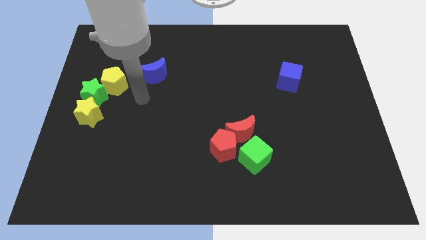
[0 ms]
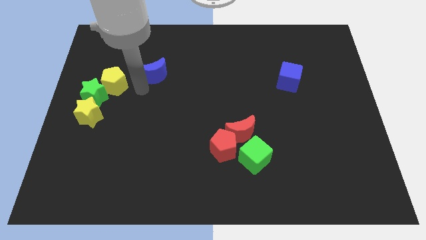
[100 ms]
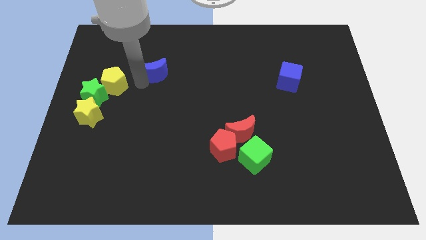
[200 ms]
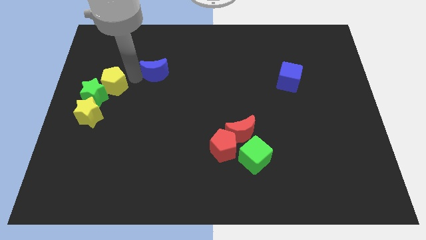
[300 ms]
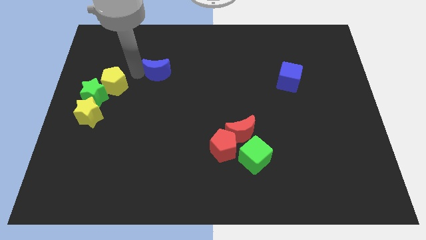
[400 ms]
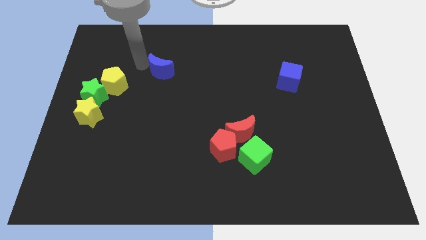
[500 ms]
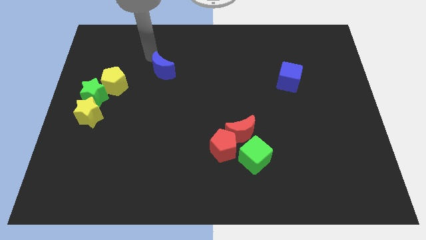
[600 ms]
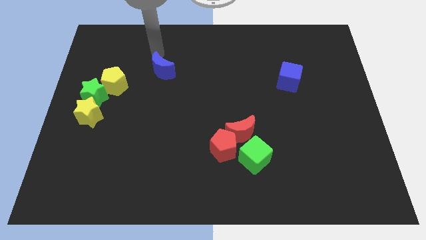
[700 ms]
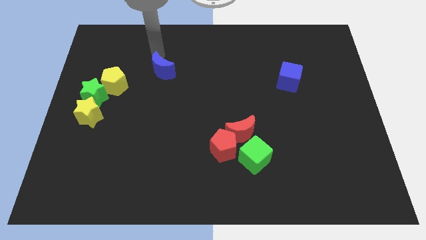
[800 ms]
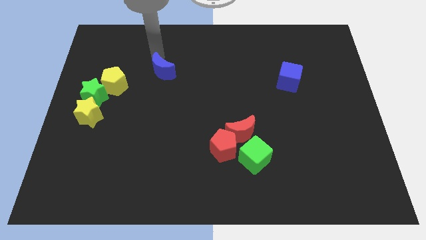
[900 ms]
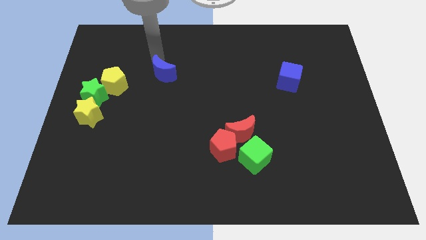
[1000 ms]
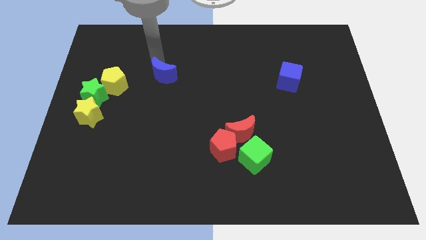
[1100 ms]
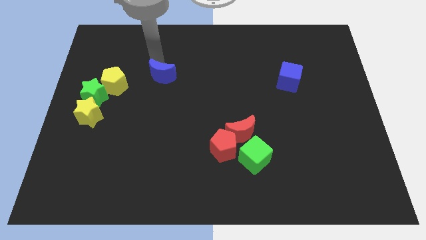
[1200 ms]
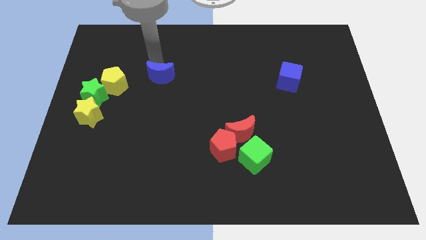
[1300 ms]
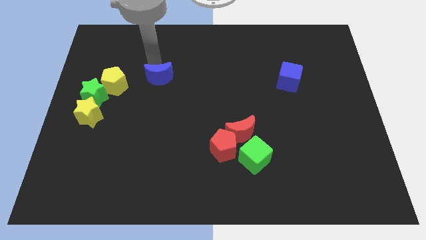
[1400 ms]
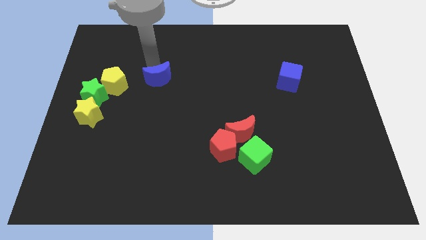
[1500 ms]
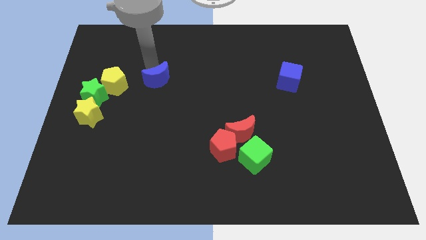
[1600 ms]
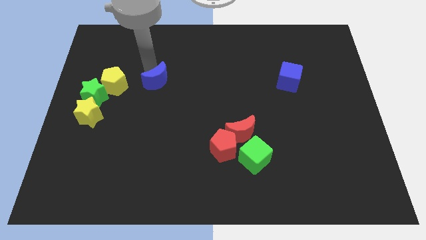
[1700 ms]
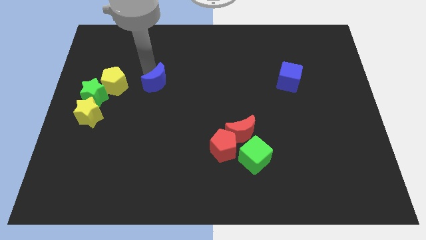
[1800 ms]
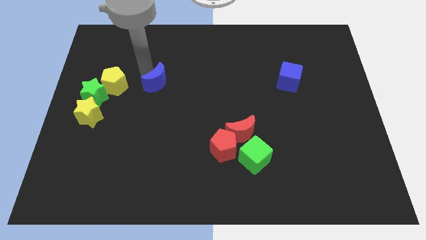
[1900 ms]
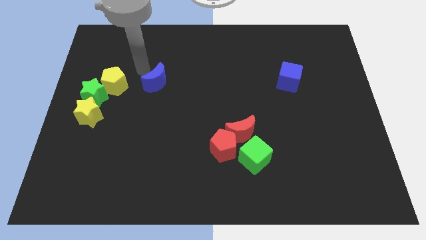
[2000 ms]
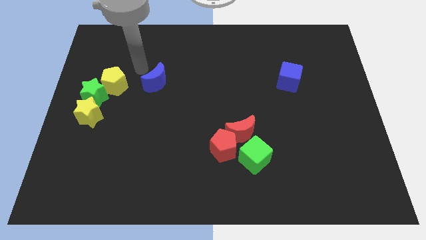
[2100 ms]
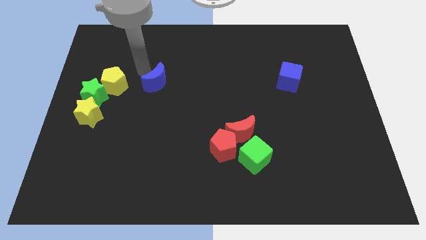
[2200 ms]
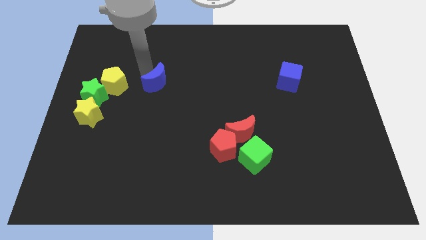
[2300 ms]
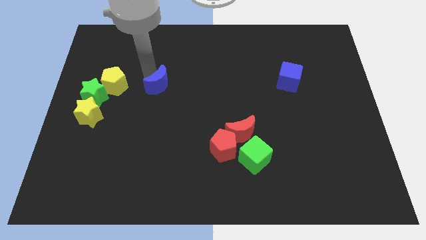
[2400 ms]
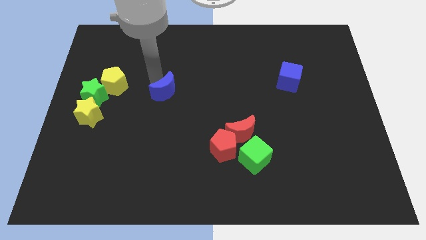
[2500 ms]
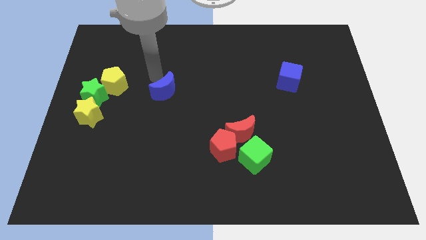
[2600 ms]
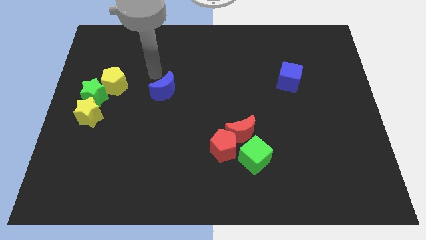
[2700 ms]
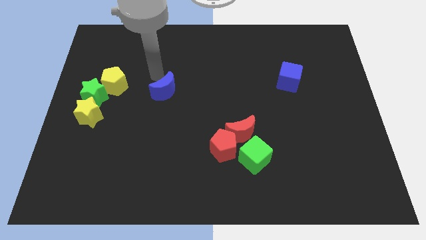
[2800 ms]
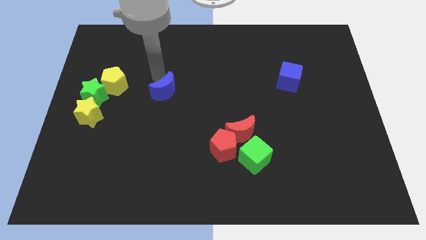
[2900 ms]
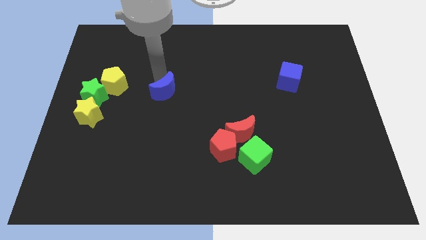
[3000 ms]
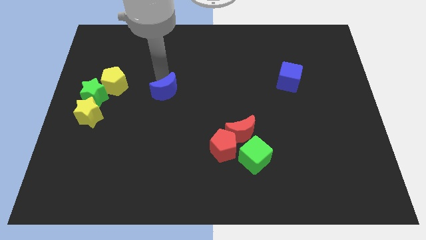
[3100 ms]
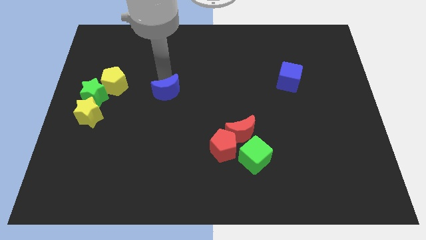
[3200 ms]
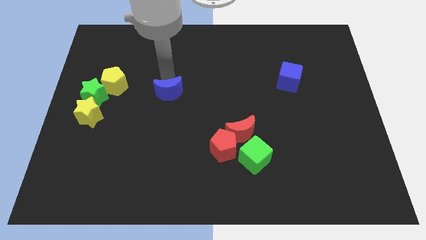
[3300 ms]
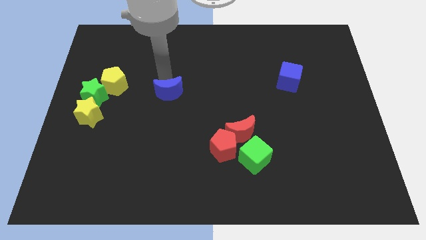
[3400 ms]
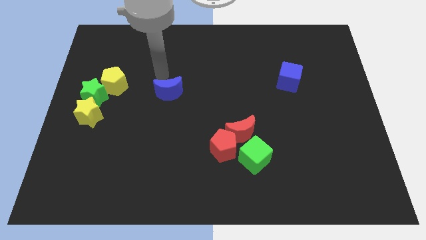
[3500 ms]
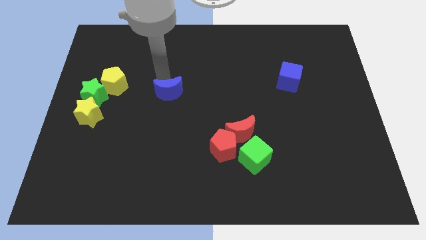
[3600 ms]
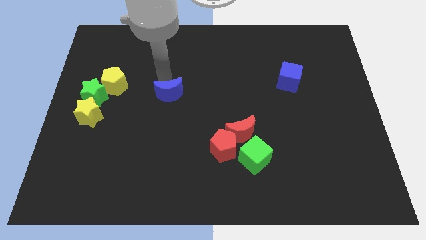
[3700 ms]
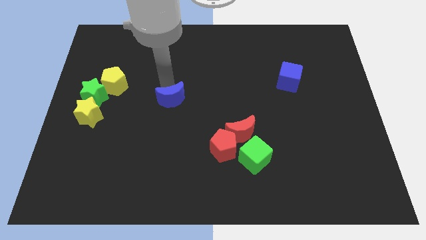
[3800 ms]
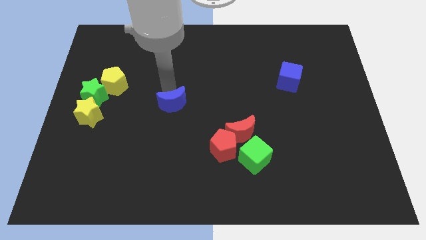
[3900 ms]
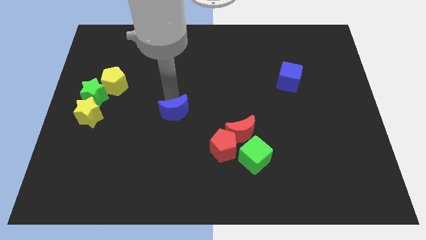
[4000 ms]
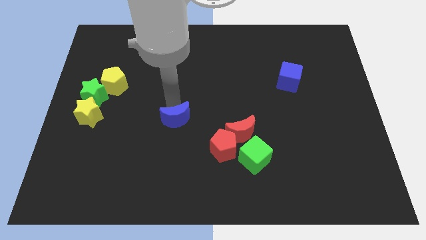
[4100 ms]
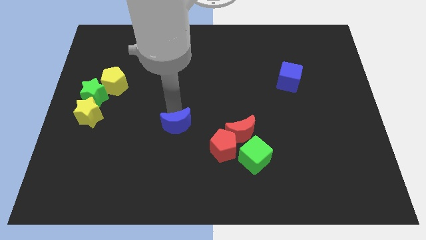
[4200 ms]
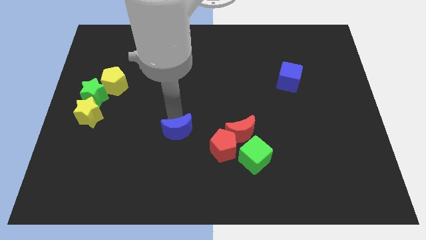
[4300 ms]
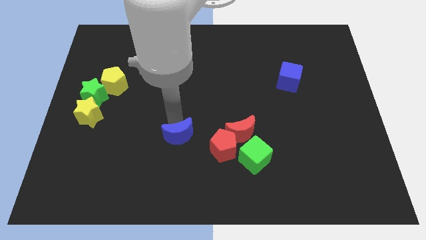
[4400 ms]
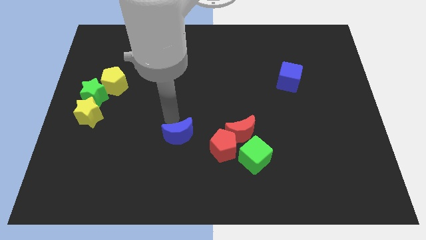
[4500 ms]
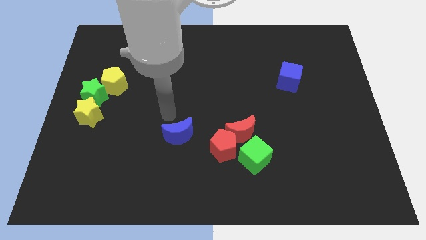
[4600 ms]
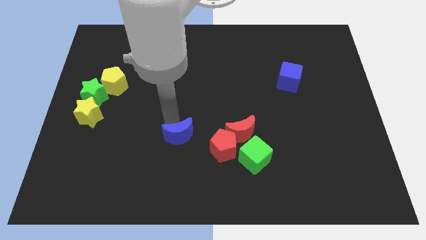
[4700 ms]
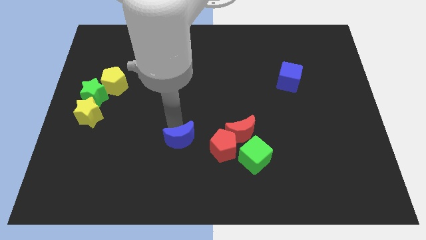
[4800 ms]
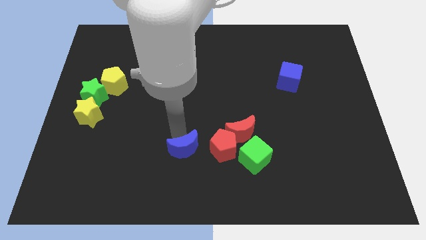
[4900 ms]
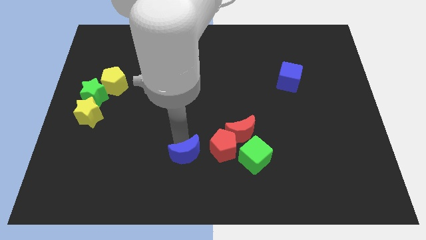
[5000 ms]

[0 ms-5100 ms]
push the blue moon diagonally down and to the left of the red pentagon

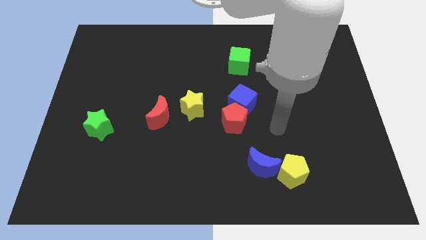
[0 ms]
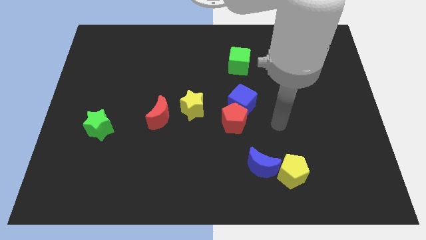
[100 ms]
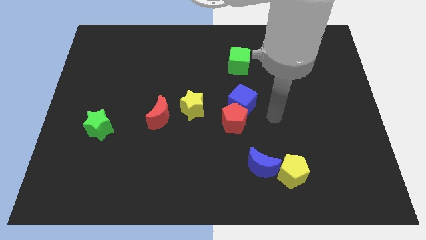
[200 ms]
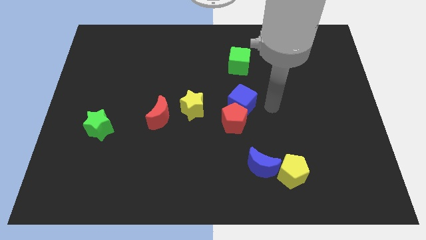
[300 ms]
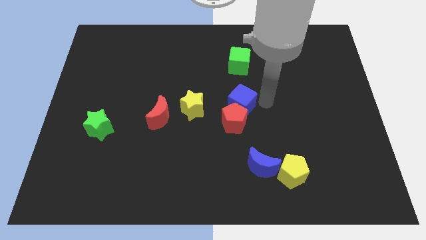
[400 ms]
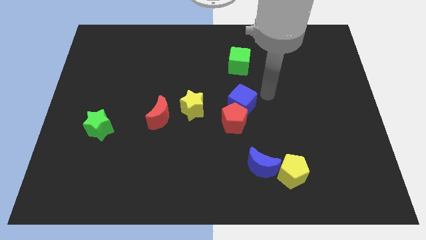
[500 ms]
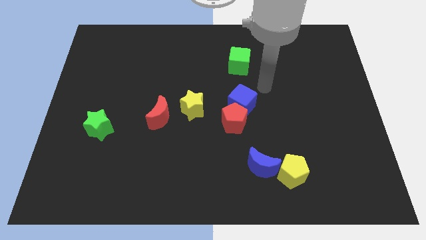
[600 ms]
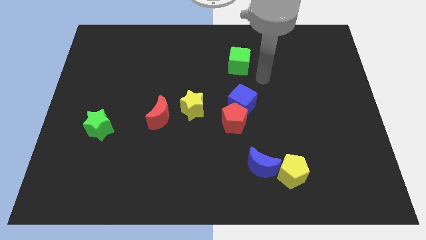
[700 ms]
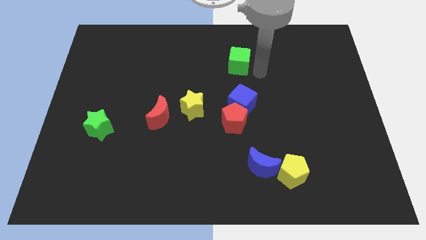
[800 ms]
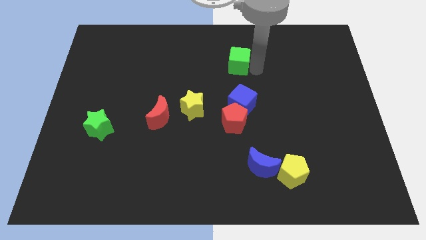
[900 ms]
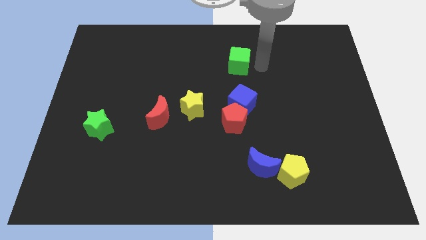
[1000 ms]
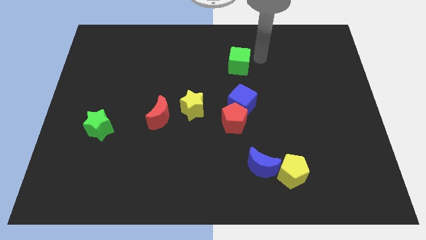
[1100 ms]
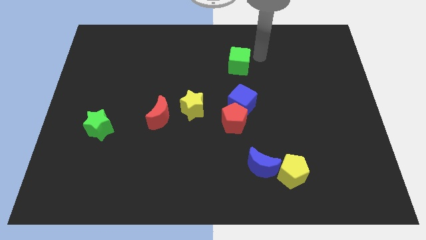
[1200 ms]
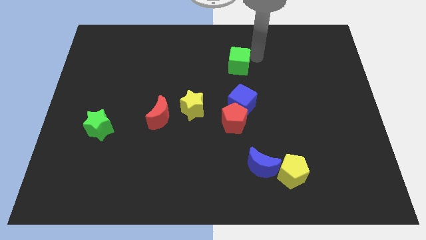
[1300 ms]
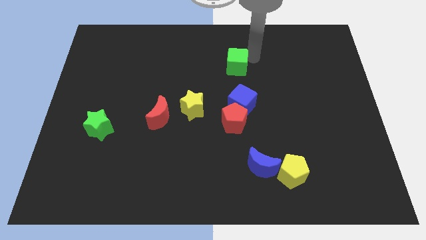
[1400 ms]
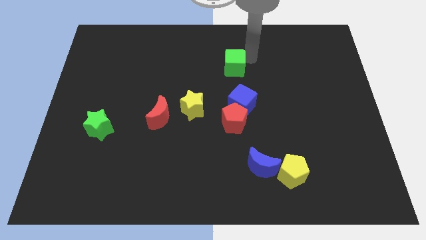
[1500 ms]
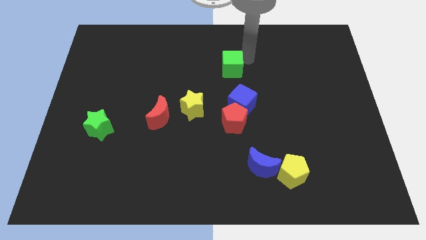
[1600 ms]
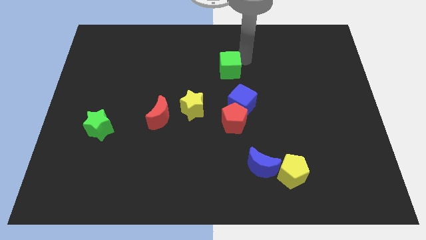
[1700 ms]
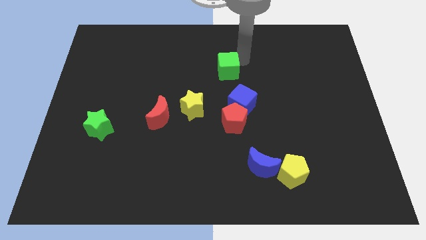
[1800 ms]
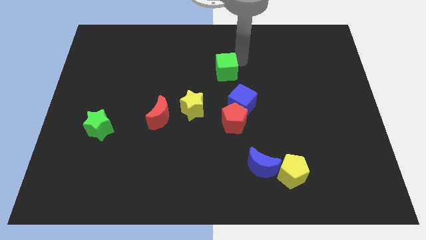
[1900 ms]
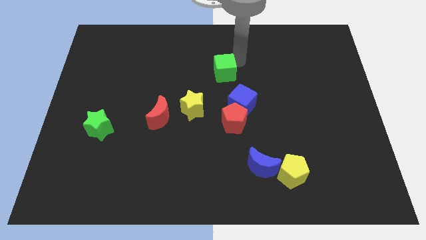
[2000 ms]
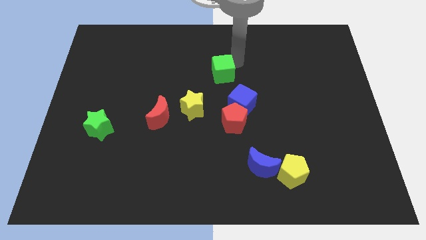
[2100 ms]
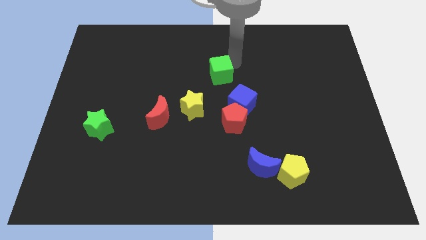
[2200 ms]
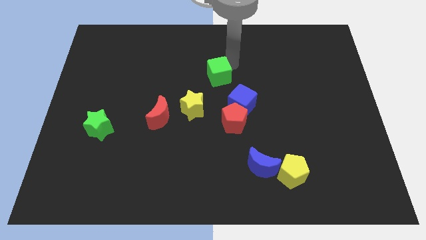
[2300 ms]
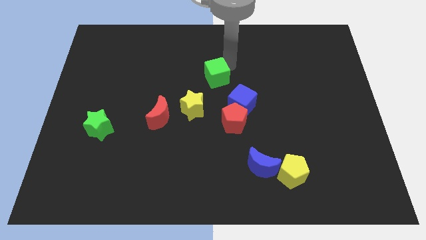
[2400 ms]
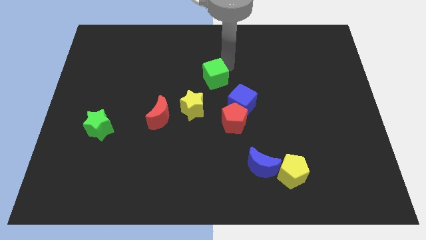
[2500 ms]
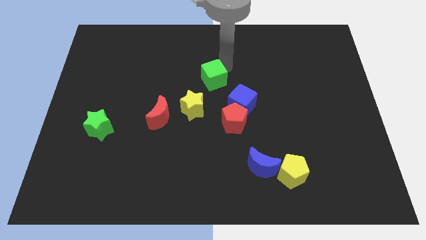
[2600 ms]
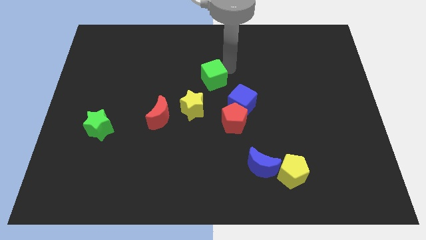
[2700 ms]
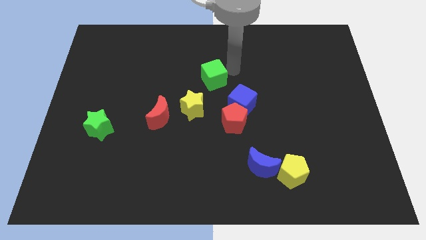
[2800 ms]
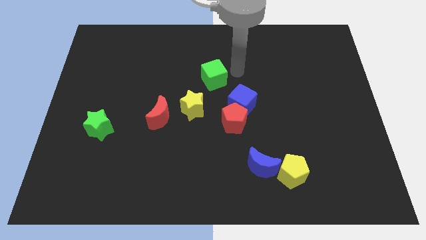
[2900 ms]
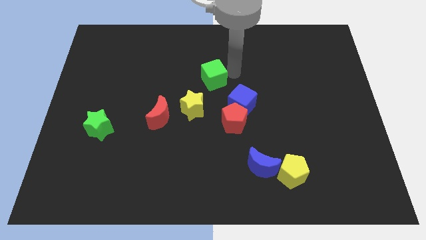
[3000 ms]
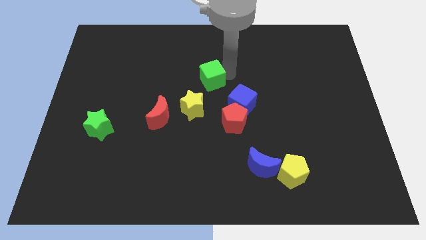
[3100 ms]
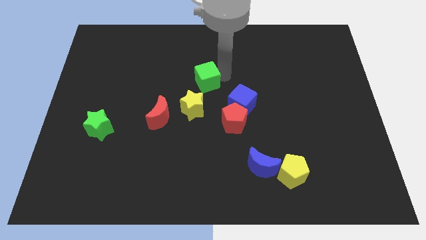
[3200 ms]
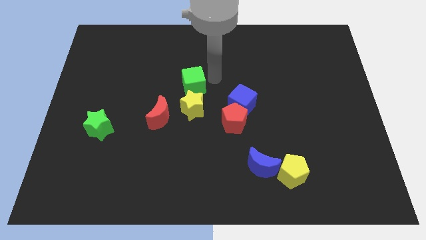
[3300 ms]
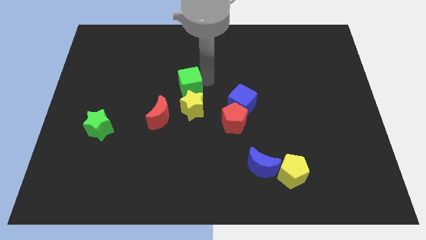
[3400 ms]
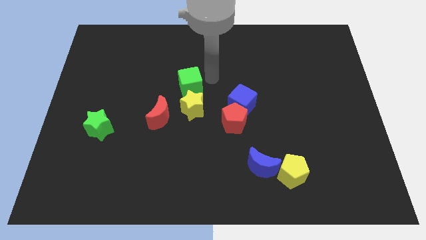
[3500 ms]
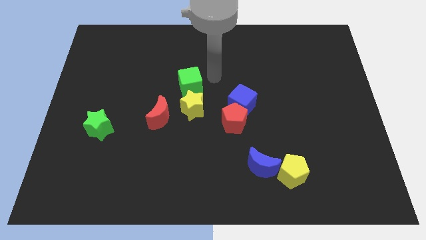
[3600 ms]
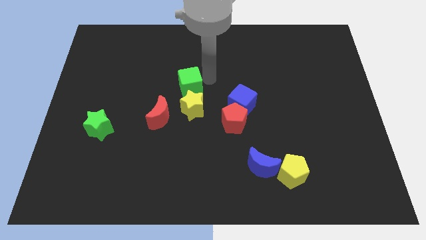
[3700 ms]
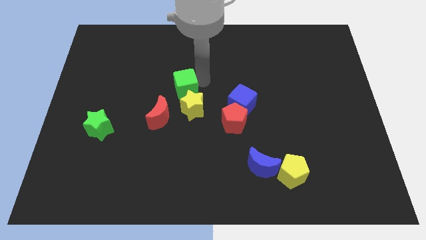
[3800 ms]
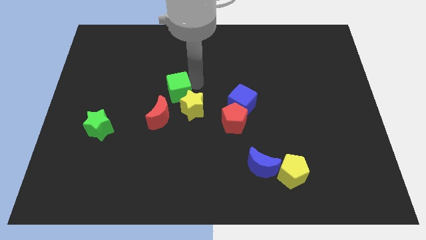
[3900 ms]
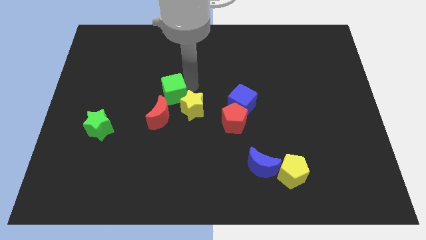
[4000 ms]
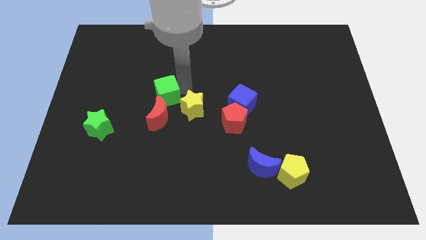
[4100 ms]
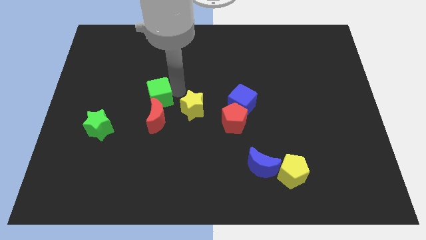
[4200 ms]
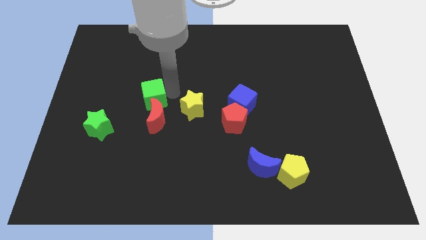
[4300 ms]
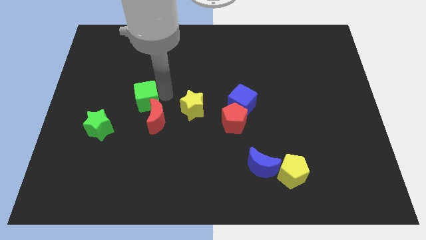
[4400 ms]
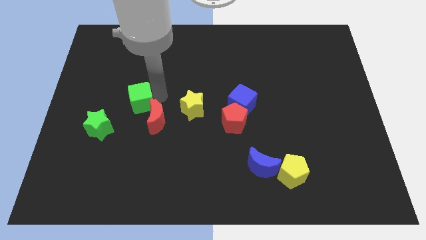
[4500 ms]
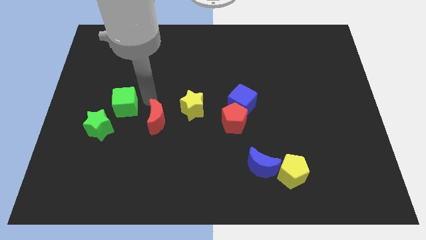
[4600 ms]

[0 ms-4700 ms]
put the green cube just left of the red moon
